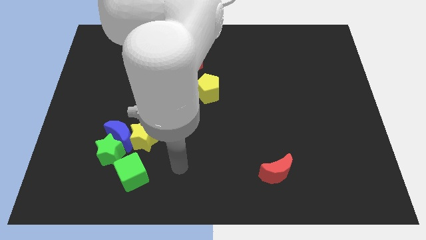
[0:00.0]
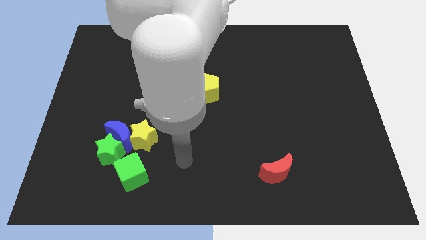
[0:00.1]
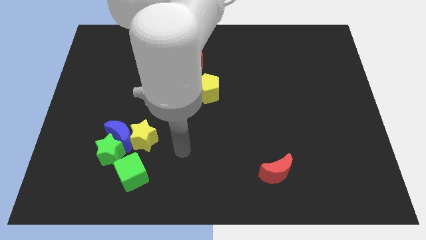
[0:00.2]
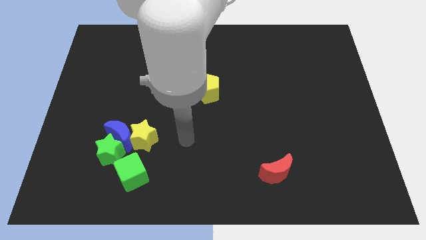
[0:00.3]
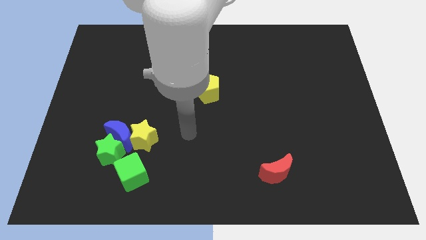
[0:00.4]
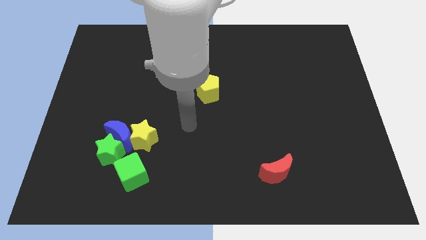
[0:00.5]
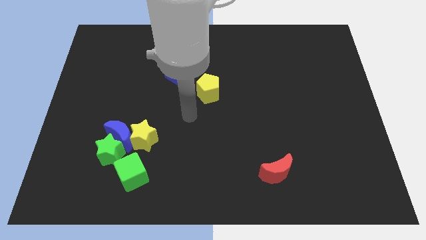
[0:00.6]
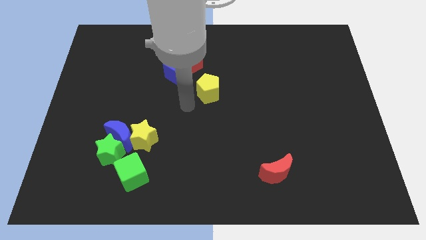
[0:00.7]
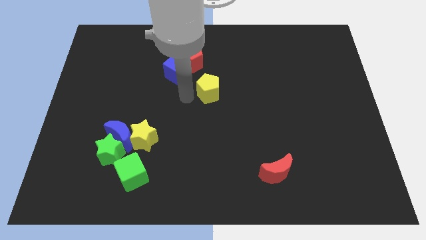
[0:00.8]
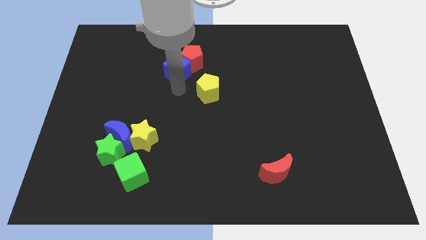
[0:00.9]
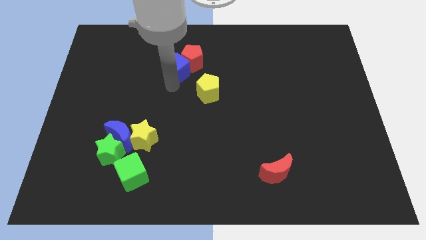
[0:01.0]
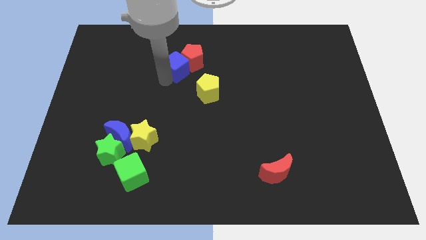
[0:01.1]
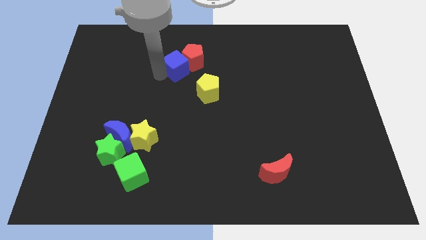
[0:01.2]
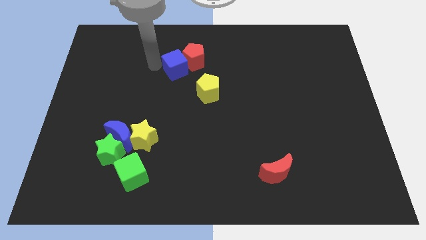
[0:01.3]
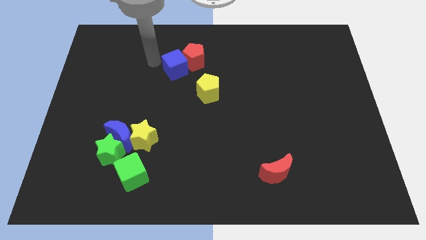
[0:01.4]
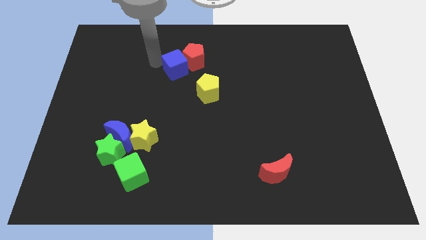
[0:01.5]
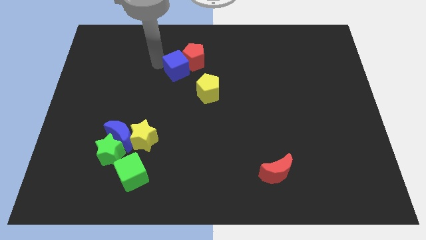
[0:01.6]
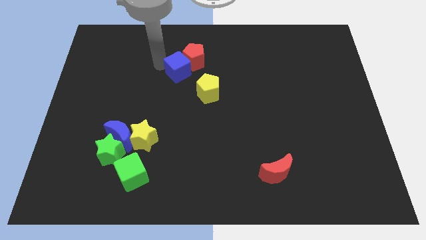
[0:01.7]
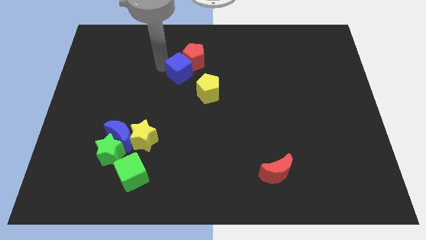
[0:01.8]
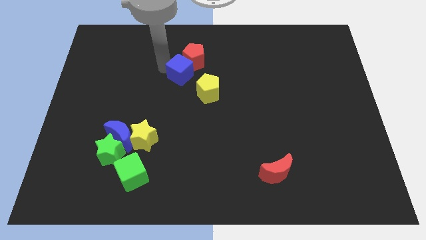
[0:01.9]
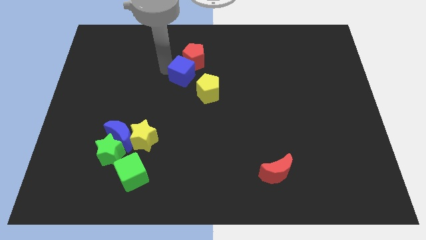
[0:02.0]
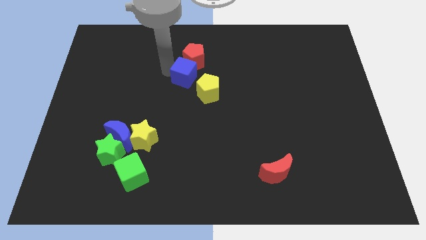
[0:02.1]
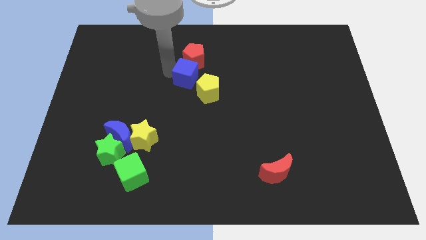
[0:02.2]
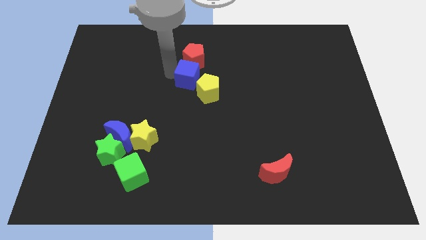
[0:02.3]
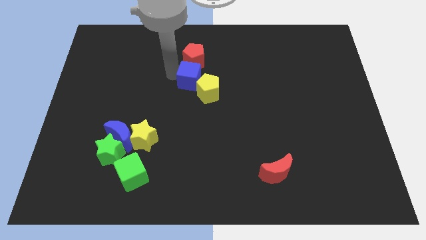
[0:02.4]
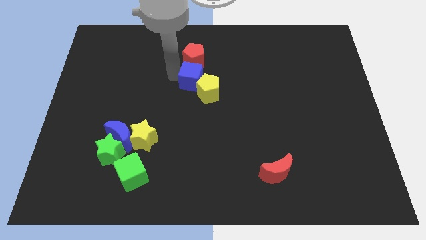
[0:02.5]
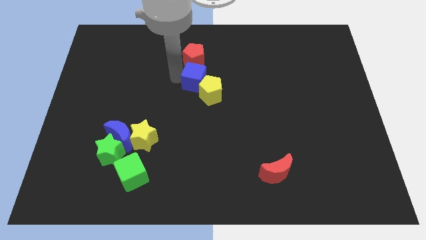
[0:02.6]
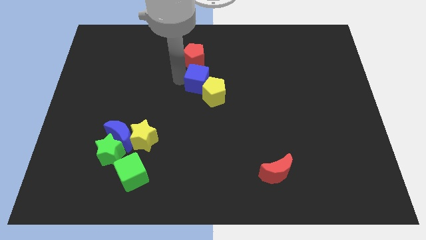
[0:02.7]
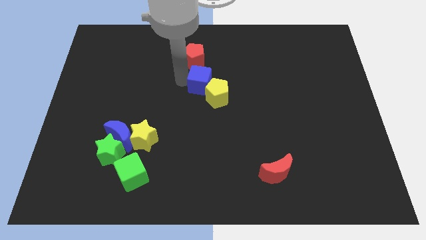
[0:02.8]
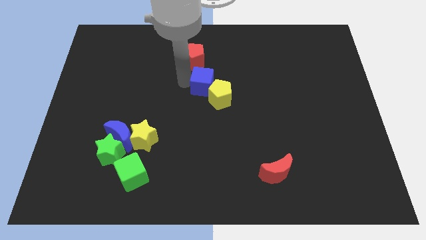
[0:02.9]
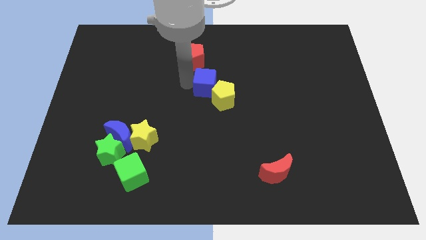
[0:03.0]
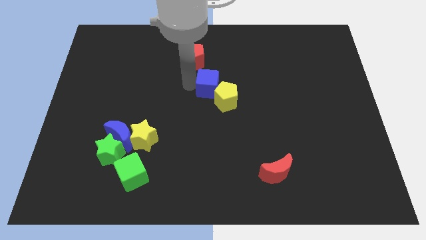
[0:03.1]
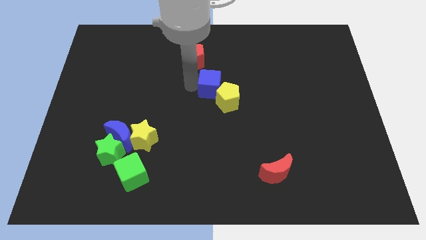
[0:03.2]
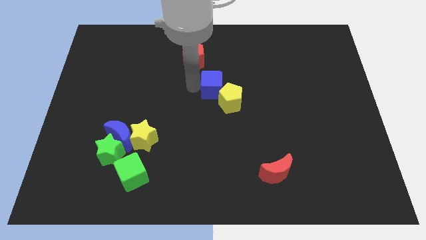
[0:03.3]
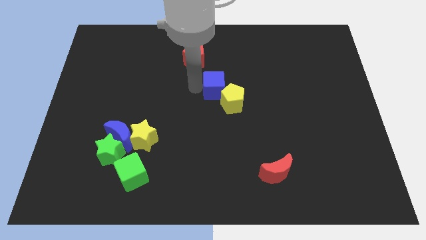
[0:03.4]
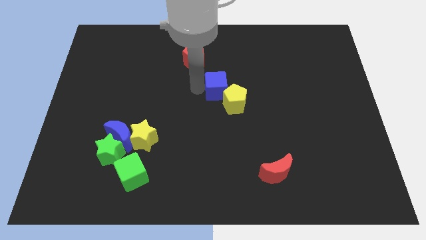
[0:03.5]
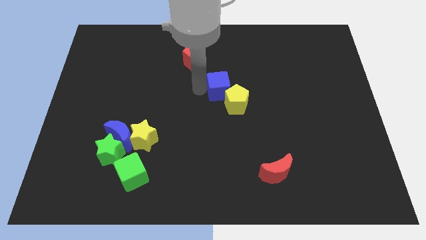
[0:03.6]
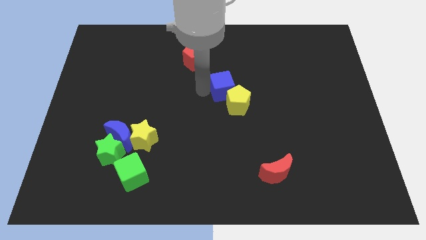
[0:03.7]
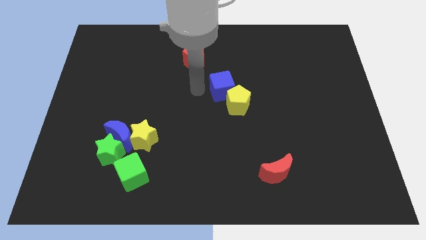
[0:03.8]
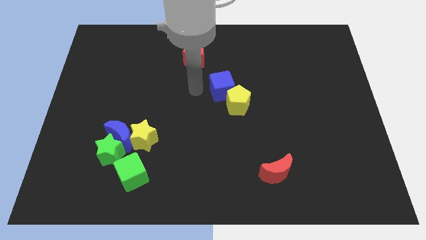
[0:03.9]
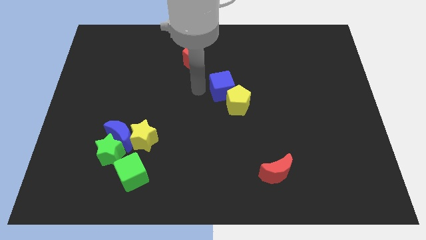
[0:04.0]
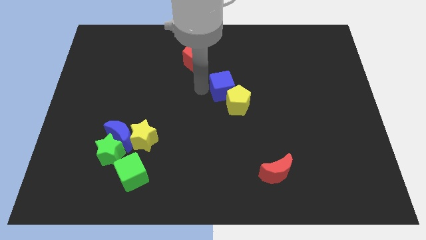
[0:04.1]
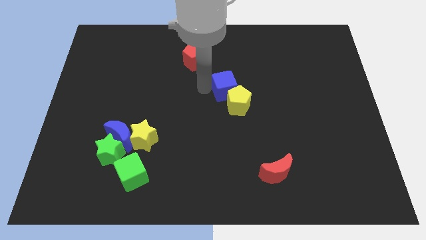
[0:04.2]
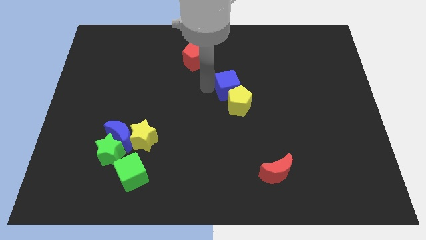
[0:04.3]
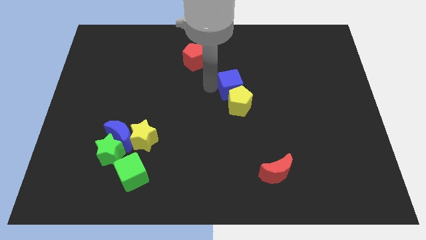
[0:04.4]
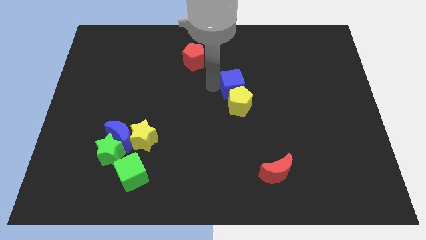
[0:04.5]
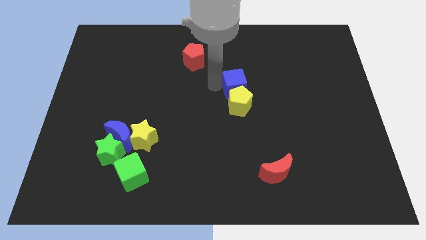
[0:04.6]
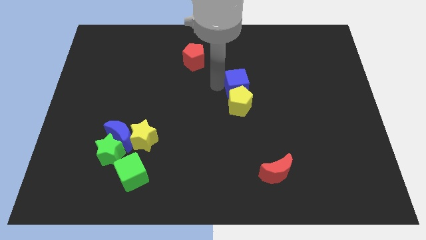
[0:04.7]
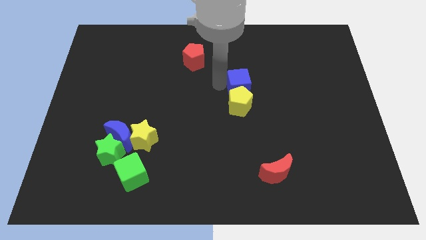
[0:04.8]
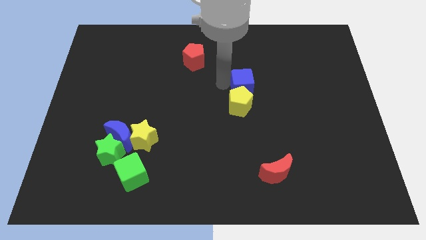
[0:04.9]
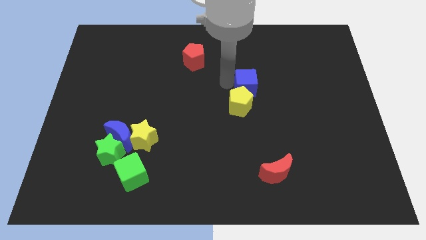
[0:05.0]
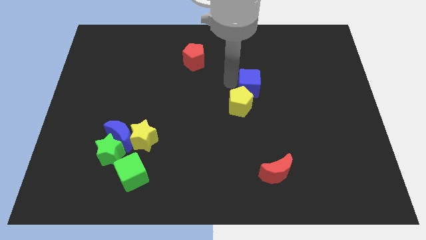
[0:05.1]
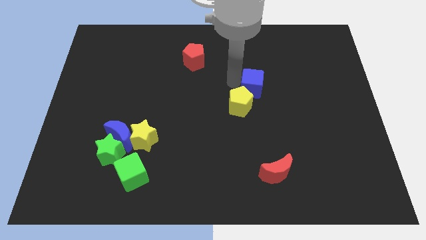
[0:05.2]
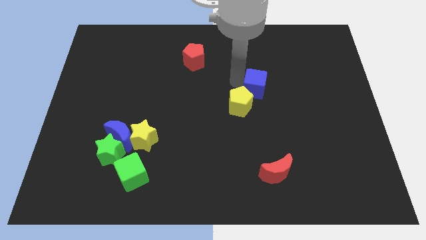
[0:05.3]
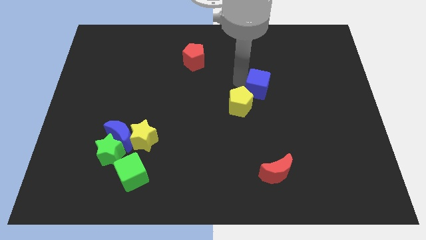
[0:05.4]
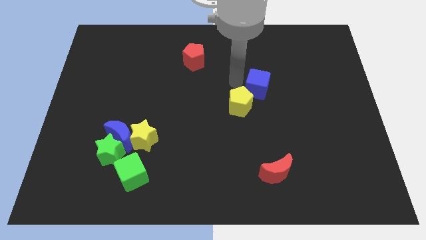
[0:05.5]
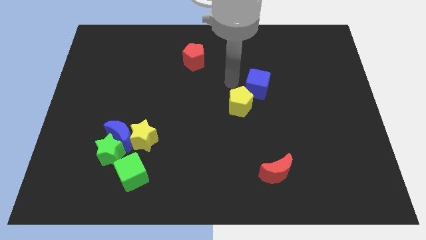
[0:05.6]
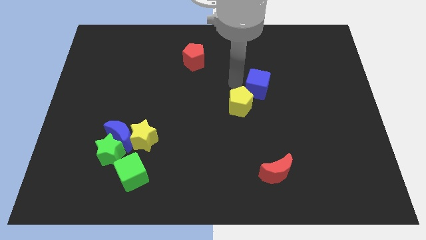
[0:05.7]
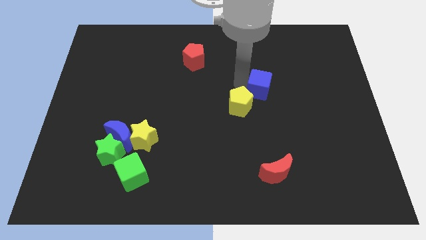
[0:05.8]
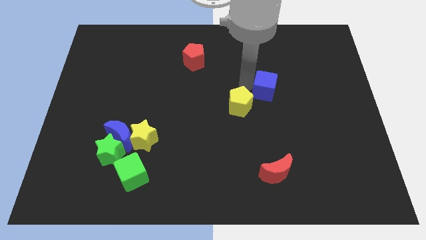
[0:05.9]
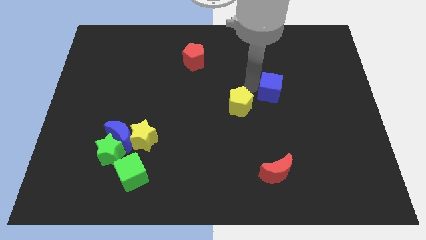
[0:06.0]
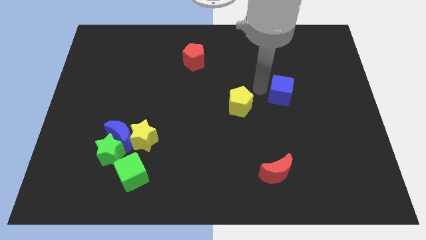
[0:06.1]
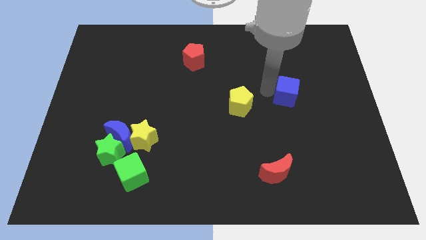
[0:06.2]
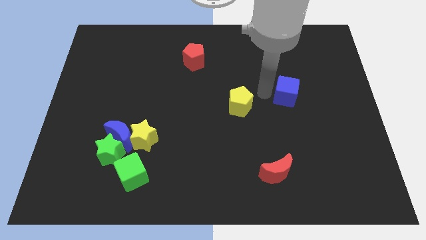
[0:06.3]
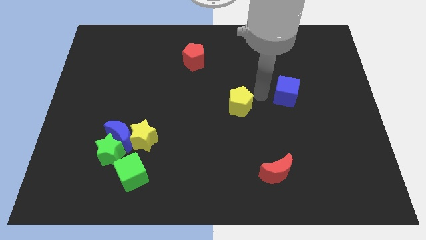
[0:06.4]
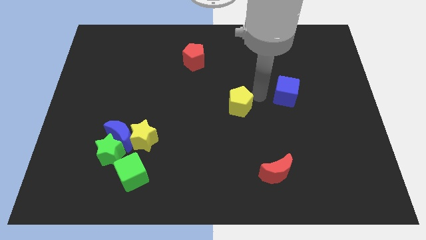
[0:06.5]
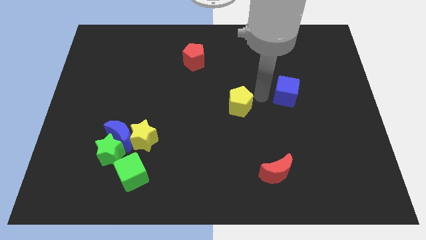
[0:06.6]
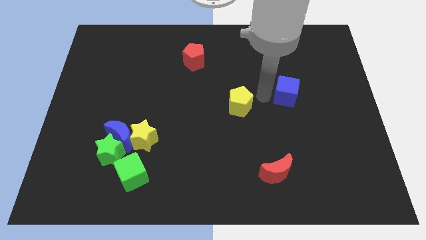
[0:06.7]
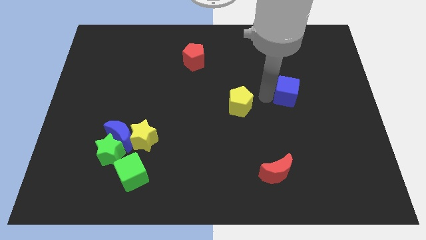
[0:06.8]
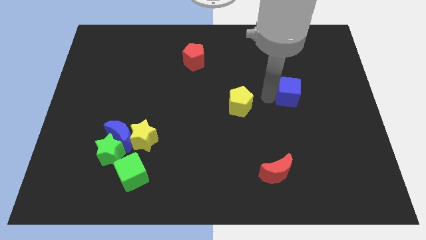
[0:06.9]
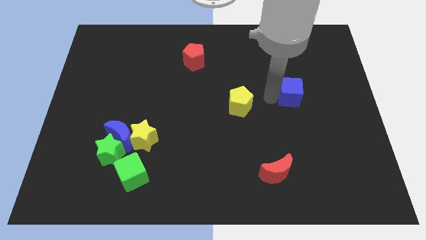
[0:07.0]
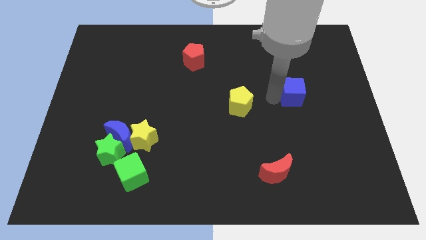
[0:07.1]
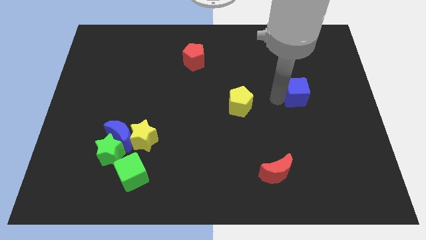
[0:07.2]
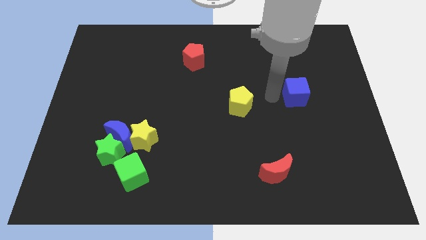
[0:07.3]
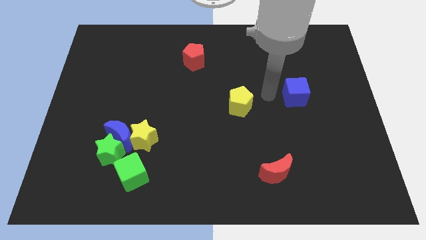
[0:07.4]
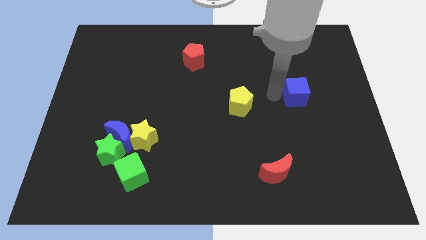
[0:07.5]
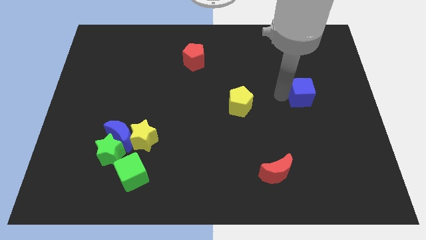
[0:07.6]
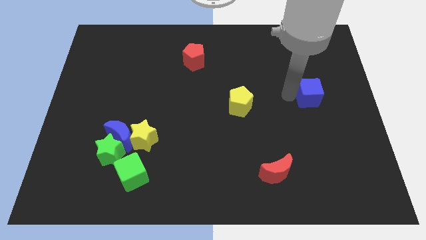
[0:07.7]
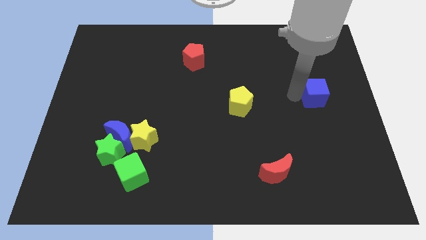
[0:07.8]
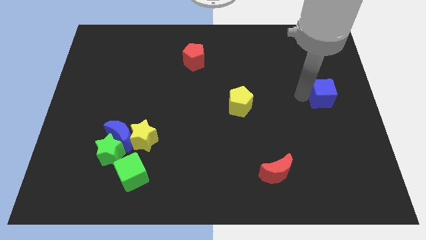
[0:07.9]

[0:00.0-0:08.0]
push the blue cube to the right side
